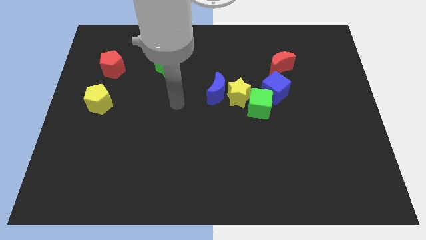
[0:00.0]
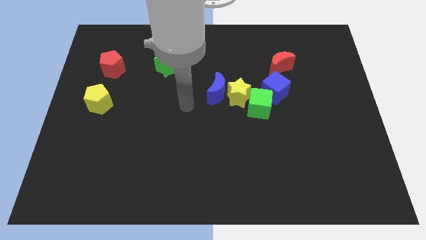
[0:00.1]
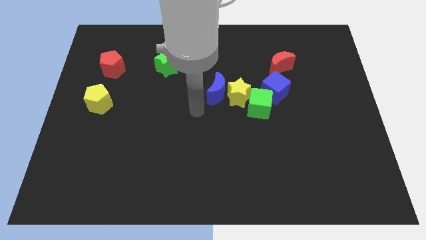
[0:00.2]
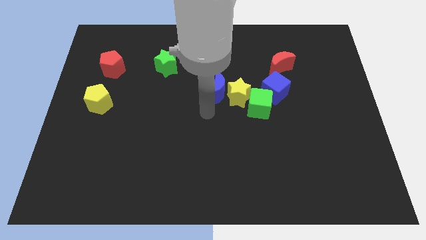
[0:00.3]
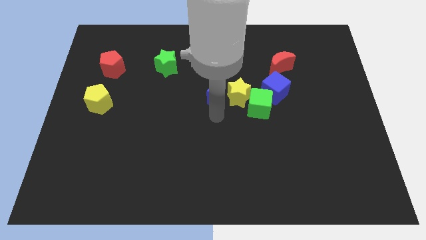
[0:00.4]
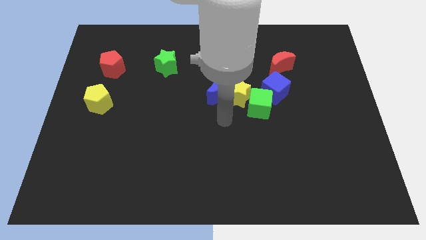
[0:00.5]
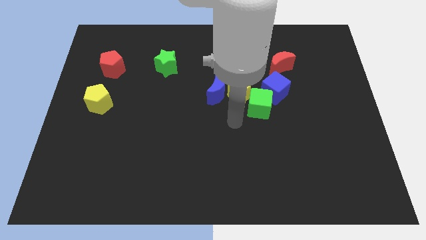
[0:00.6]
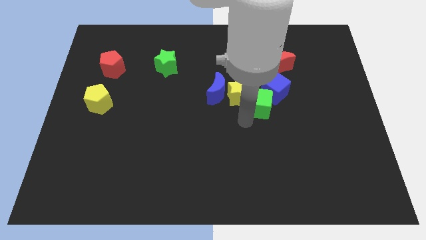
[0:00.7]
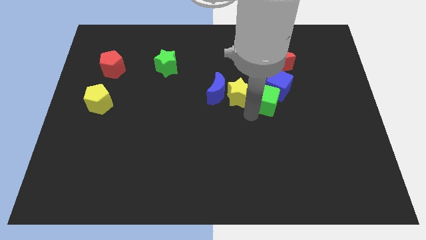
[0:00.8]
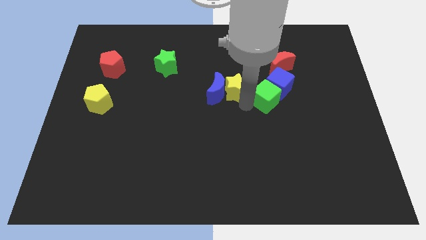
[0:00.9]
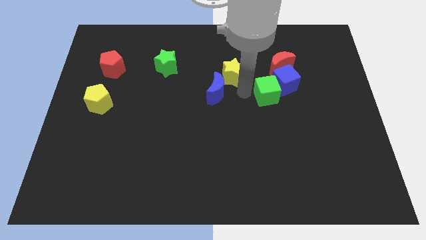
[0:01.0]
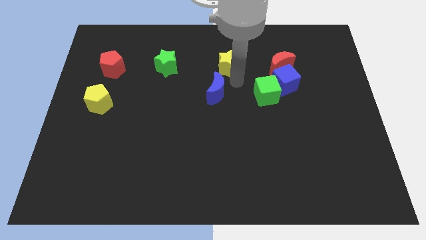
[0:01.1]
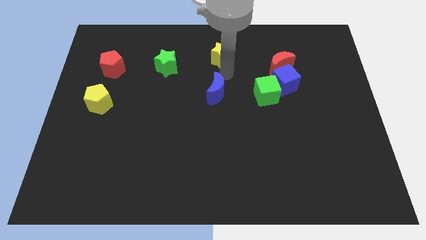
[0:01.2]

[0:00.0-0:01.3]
pull the blue moon apart from the yellow star

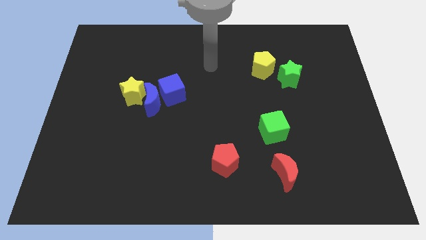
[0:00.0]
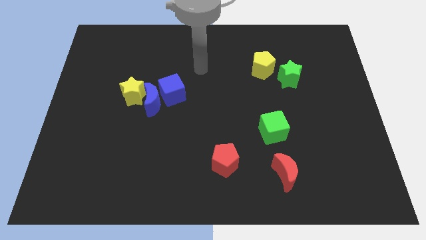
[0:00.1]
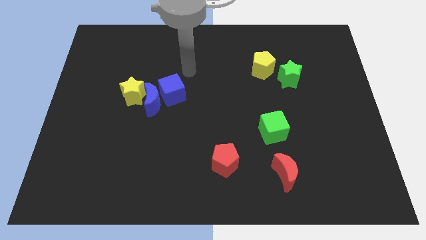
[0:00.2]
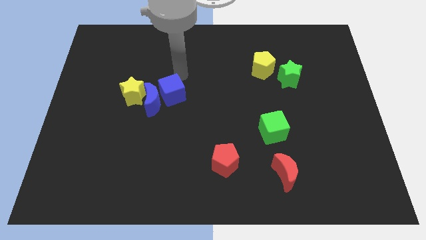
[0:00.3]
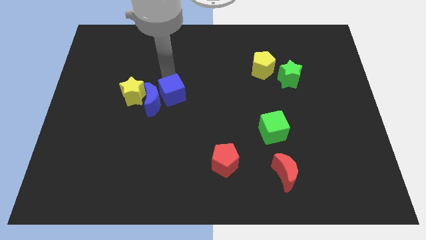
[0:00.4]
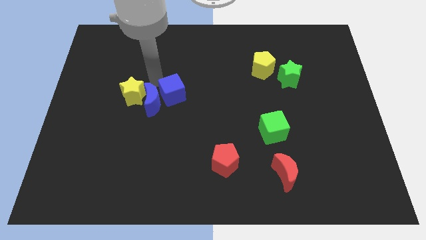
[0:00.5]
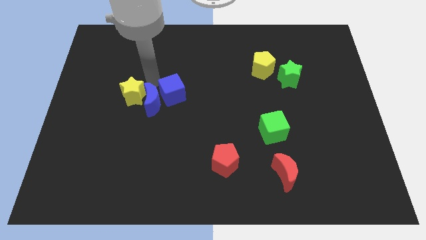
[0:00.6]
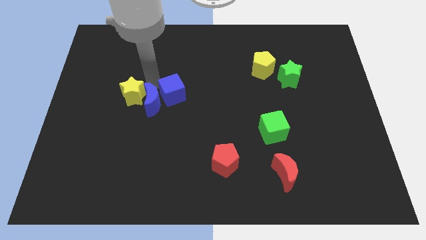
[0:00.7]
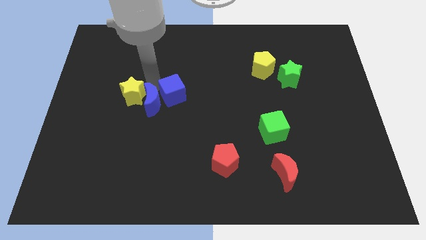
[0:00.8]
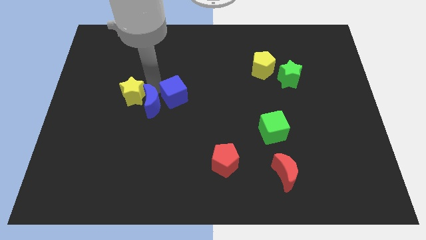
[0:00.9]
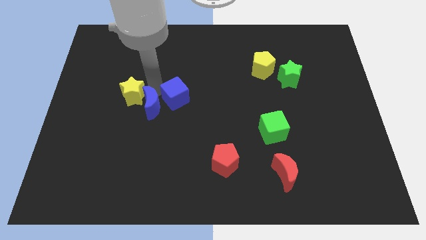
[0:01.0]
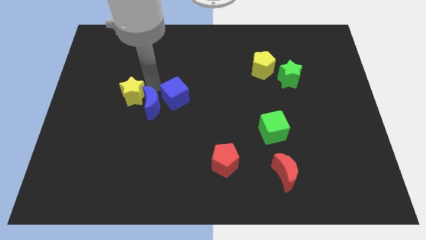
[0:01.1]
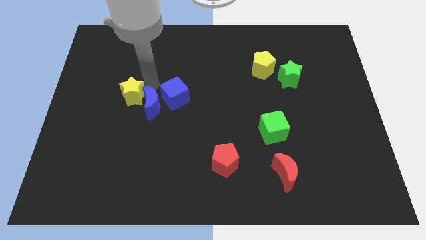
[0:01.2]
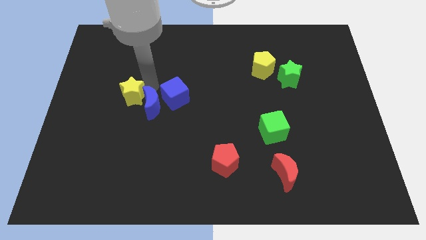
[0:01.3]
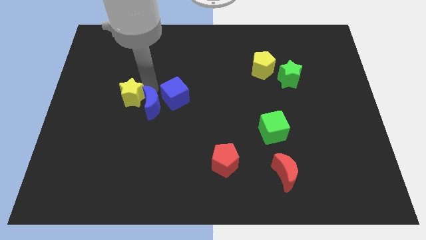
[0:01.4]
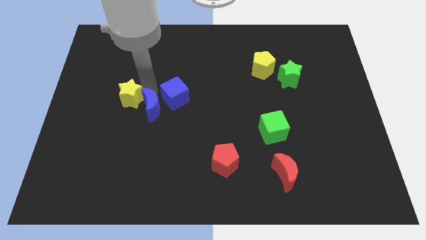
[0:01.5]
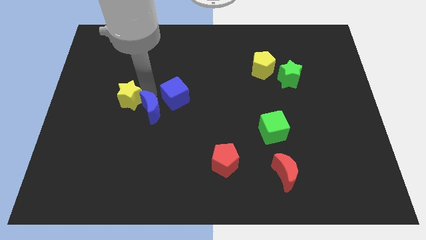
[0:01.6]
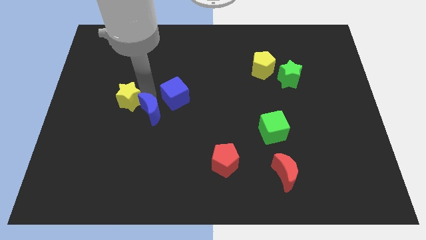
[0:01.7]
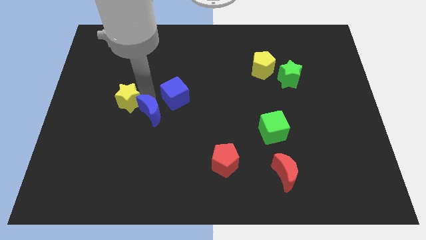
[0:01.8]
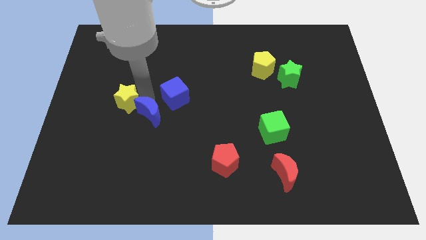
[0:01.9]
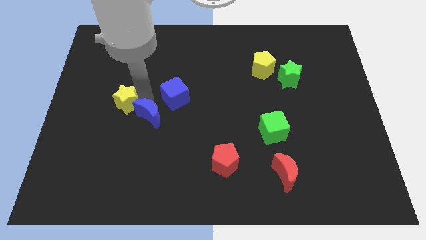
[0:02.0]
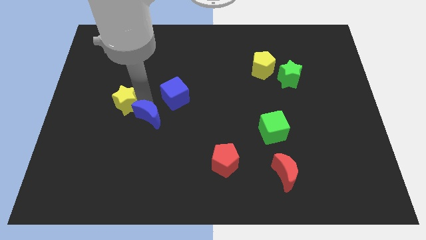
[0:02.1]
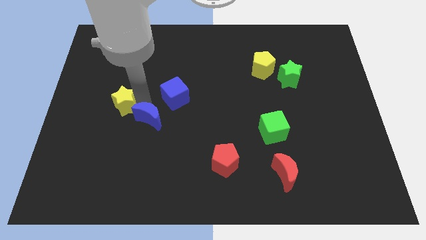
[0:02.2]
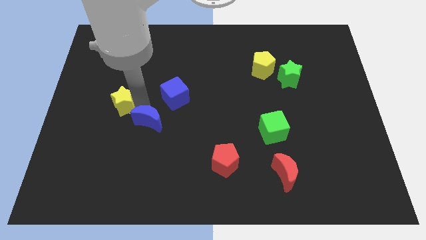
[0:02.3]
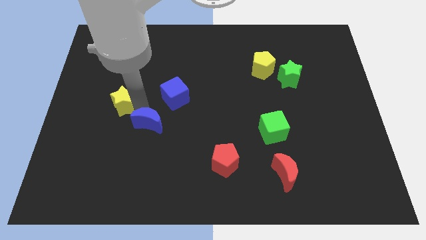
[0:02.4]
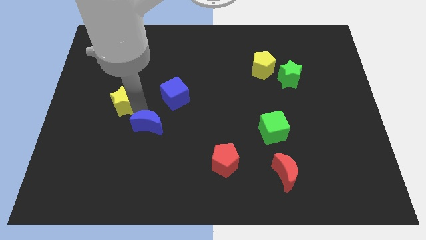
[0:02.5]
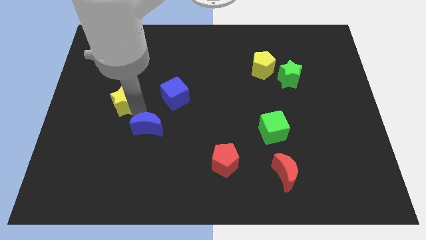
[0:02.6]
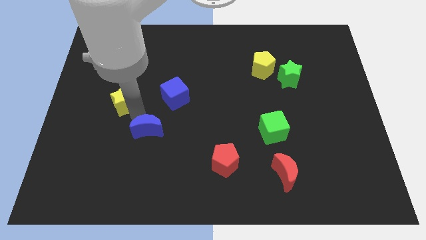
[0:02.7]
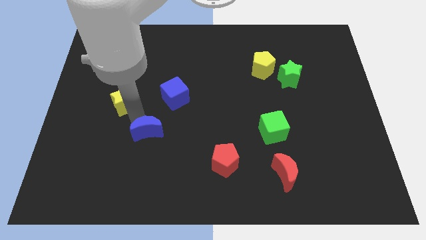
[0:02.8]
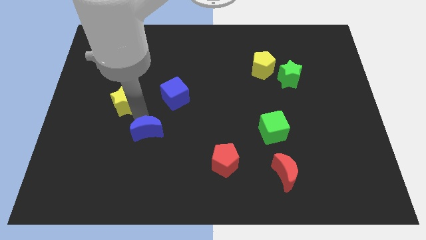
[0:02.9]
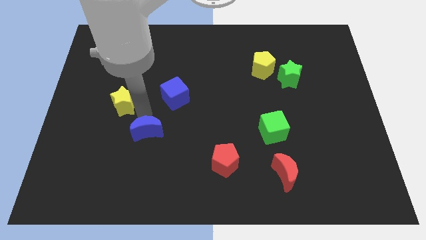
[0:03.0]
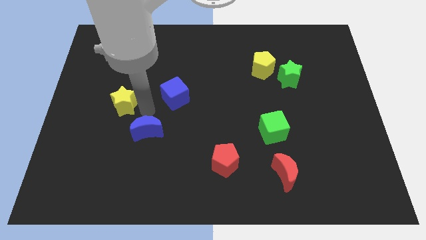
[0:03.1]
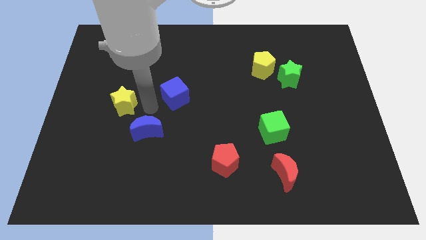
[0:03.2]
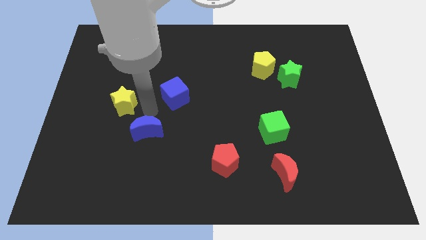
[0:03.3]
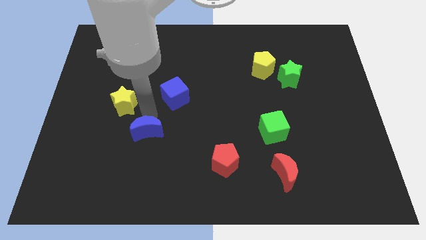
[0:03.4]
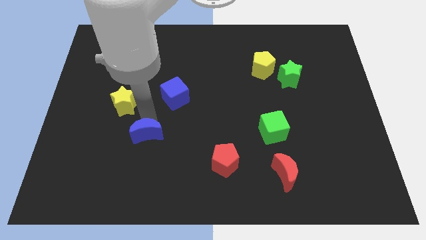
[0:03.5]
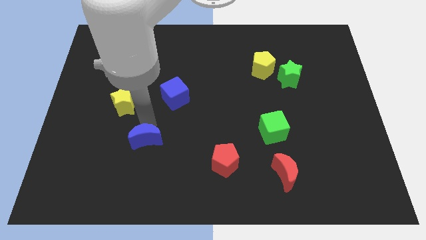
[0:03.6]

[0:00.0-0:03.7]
separate the blue moon from the blue cube and yellow star

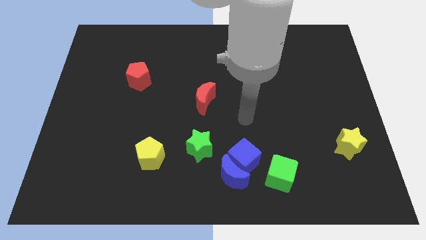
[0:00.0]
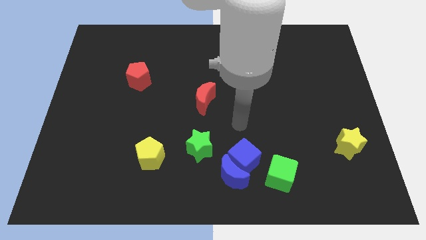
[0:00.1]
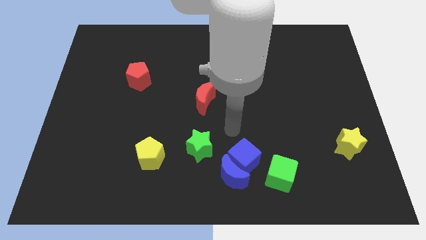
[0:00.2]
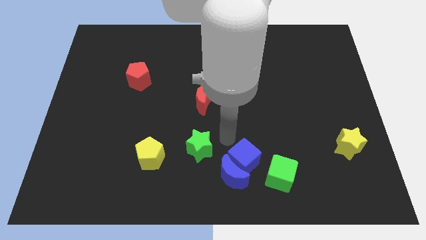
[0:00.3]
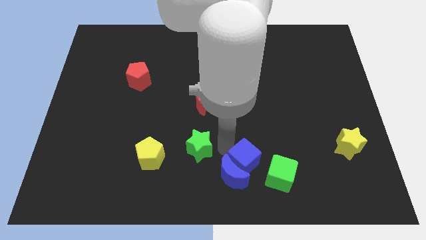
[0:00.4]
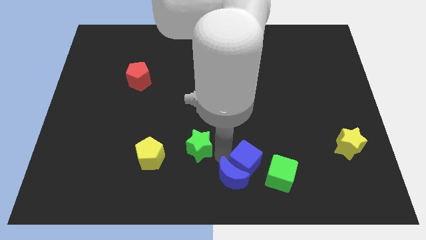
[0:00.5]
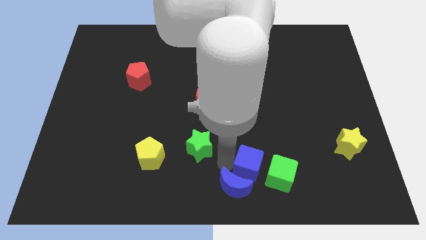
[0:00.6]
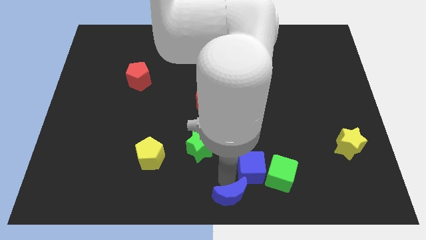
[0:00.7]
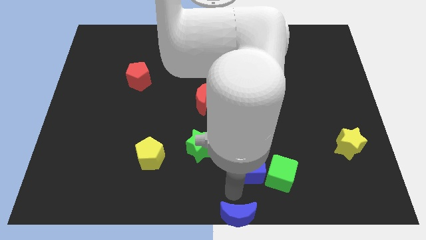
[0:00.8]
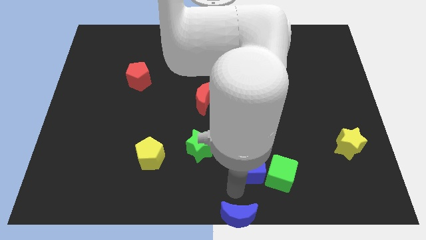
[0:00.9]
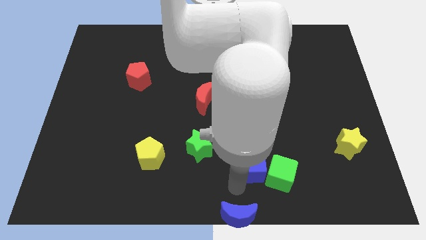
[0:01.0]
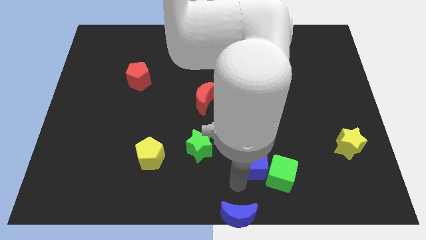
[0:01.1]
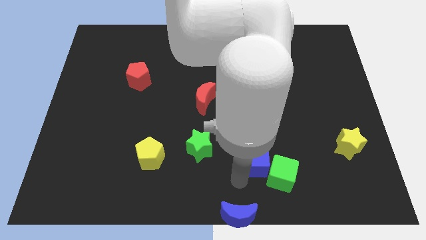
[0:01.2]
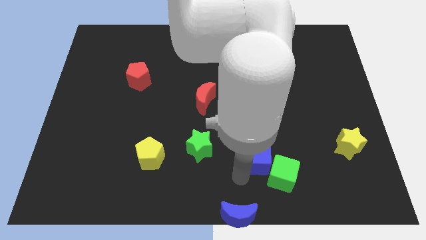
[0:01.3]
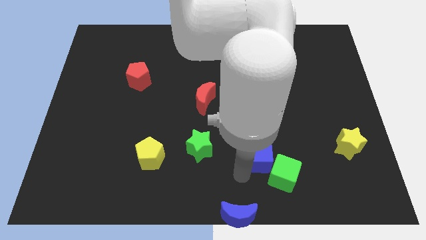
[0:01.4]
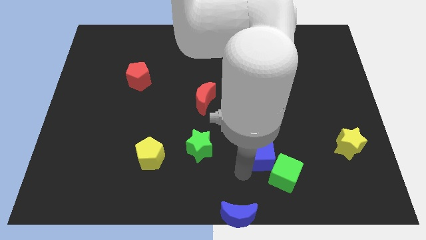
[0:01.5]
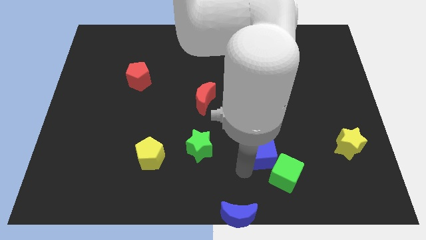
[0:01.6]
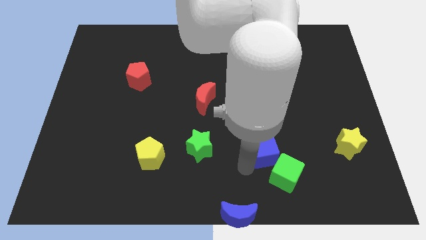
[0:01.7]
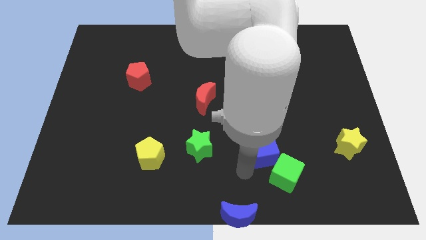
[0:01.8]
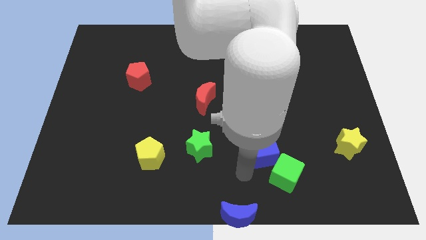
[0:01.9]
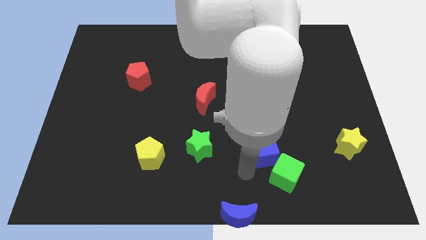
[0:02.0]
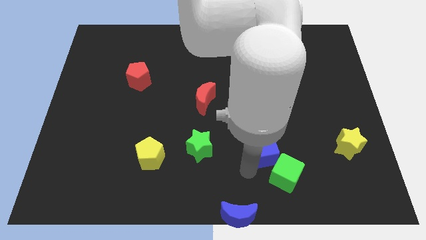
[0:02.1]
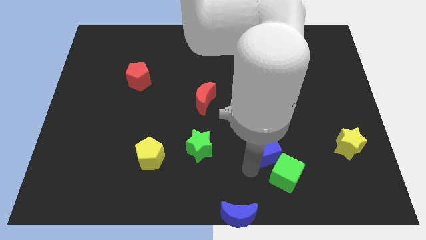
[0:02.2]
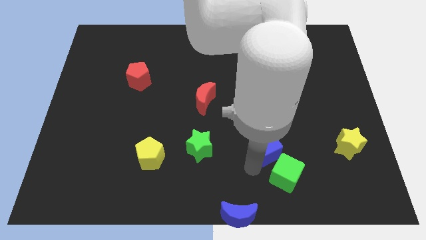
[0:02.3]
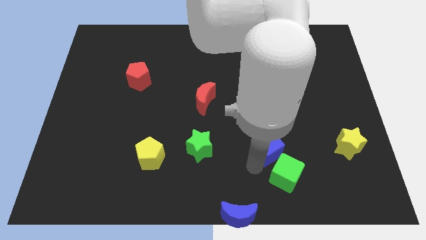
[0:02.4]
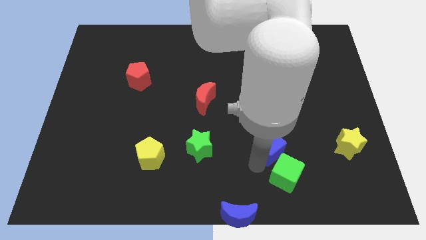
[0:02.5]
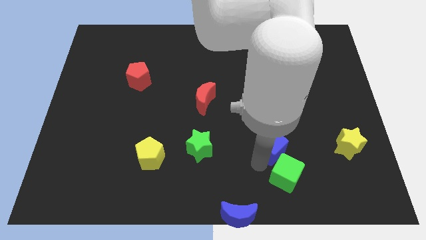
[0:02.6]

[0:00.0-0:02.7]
separate the blue cube from the clump

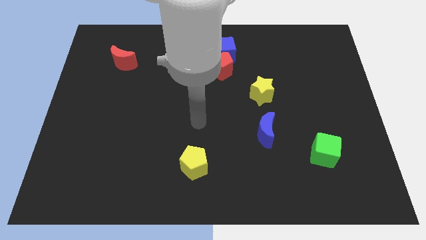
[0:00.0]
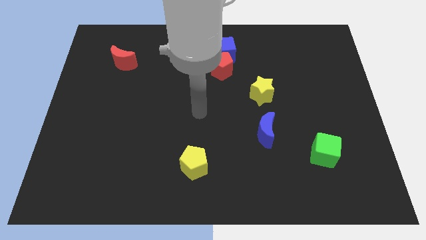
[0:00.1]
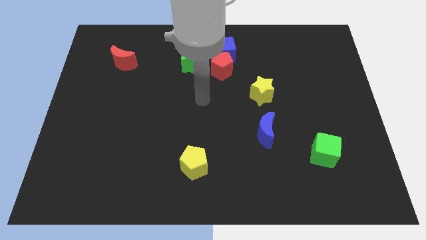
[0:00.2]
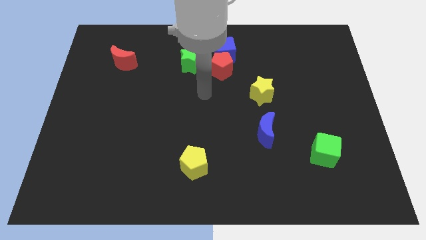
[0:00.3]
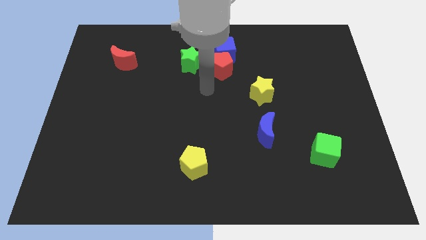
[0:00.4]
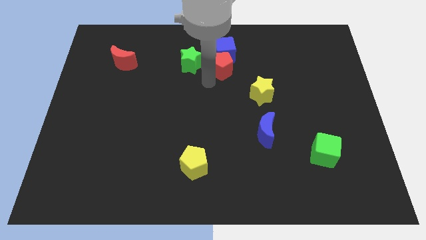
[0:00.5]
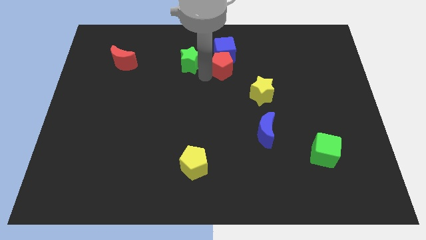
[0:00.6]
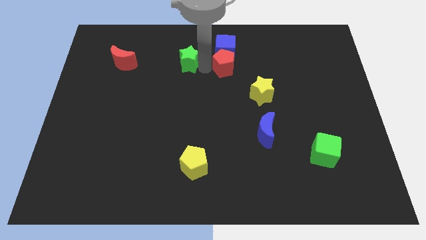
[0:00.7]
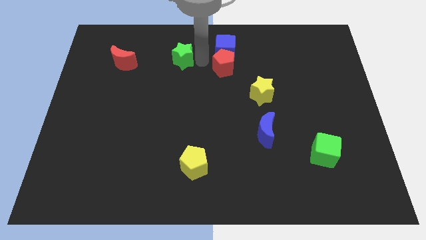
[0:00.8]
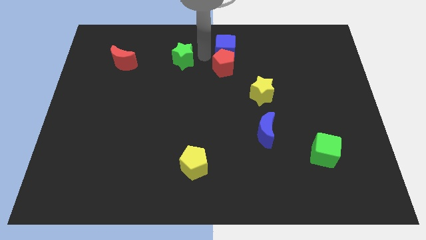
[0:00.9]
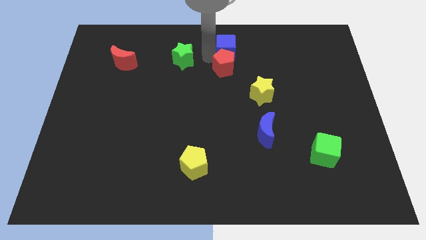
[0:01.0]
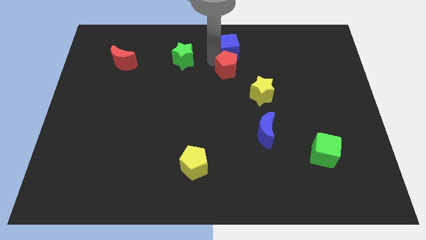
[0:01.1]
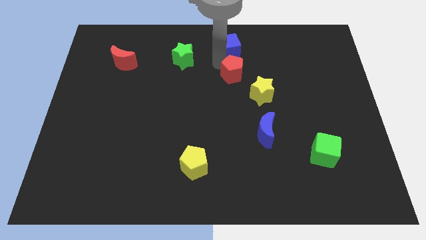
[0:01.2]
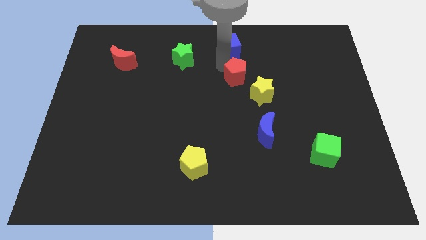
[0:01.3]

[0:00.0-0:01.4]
pull the red pentagon apart from the blue cube and green star

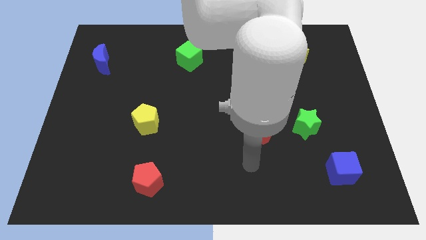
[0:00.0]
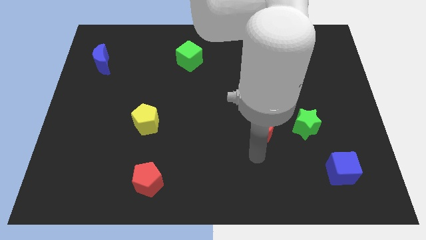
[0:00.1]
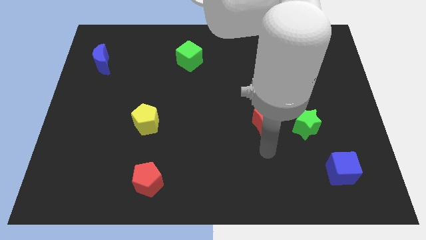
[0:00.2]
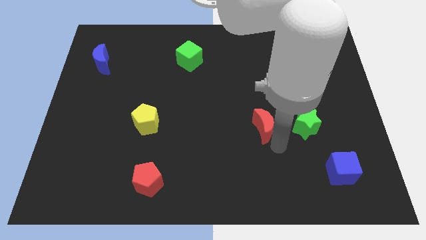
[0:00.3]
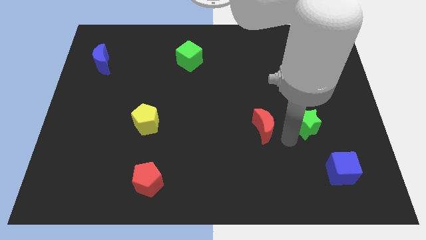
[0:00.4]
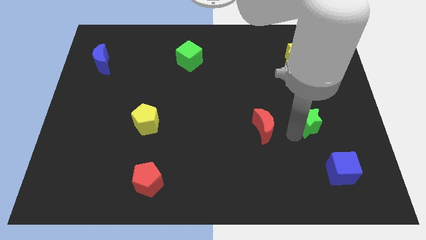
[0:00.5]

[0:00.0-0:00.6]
separate the red moon from the green star
